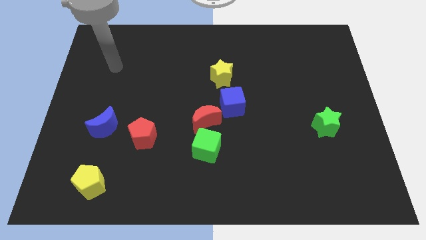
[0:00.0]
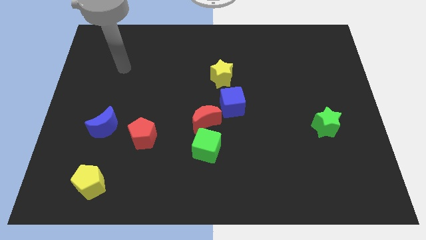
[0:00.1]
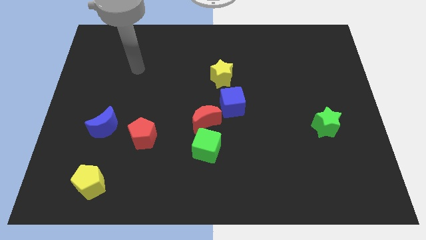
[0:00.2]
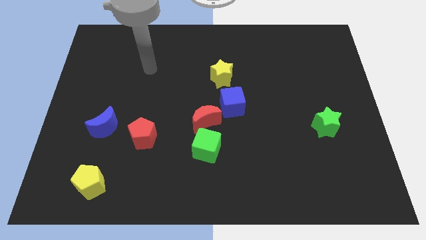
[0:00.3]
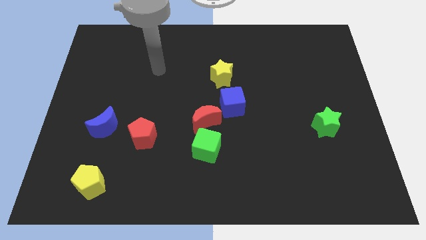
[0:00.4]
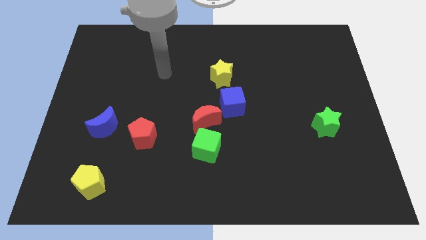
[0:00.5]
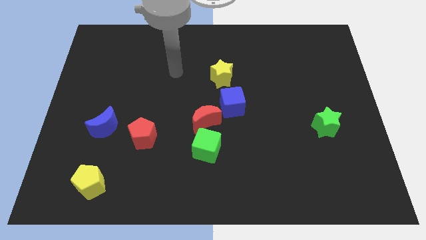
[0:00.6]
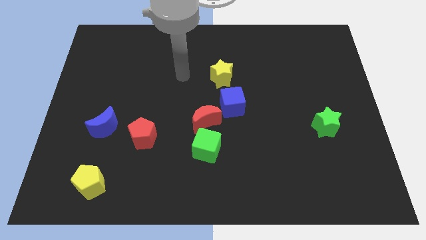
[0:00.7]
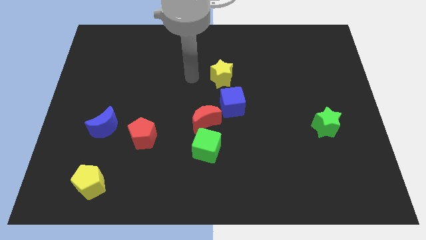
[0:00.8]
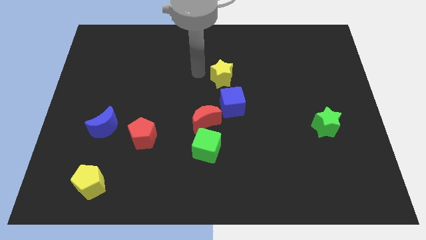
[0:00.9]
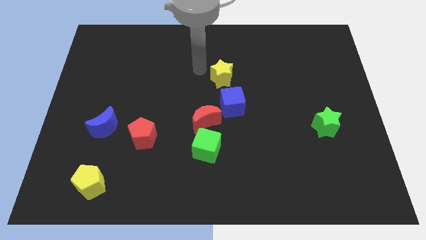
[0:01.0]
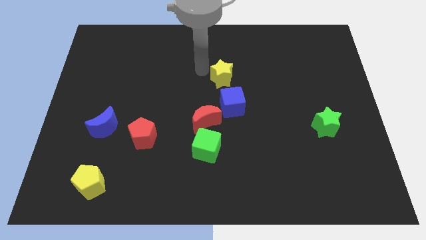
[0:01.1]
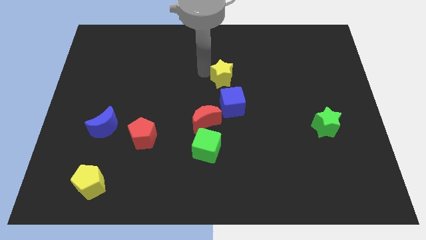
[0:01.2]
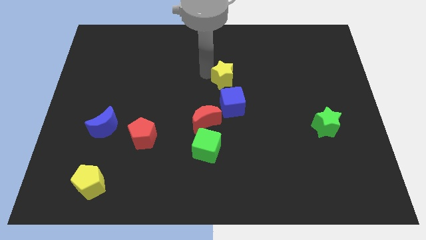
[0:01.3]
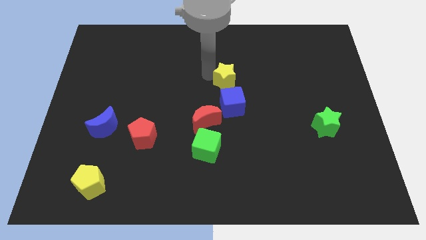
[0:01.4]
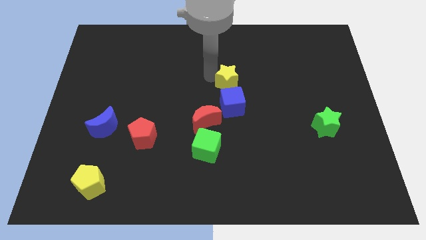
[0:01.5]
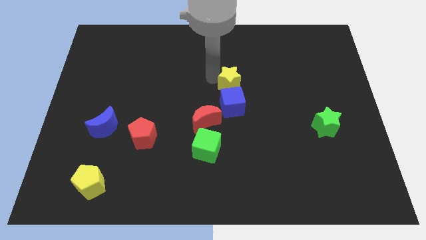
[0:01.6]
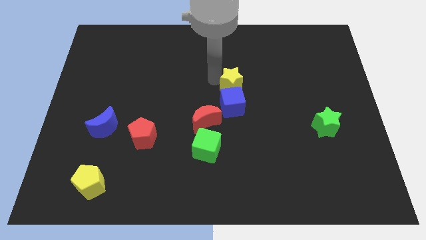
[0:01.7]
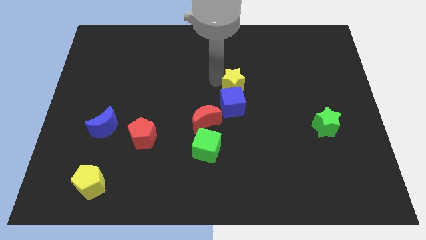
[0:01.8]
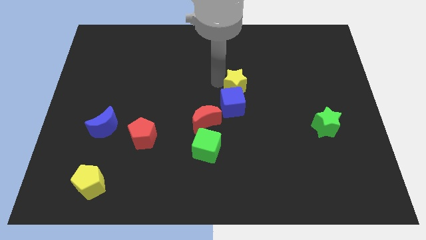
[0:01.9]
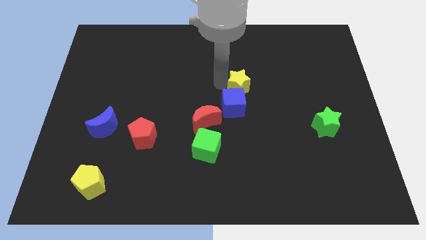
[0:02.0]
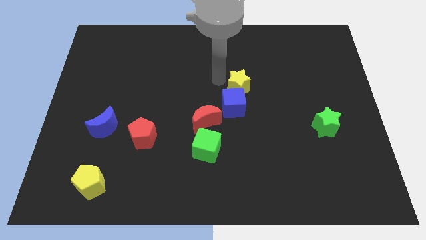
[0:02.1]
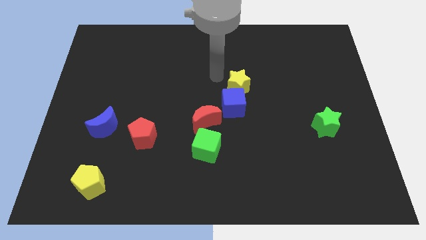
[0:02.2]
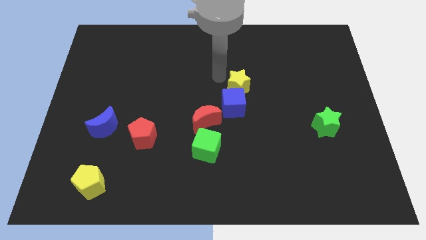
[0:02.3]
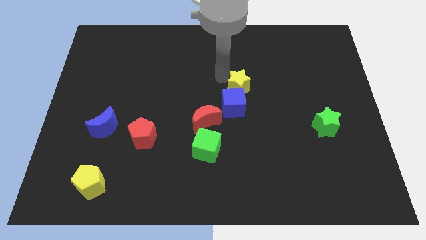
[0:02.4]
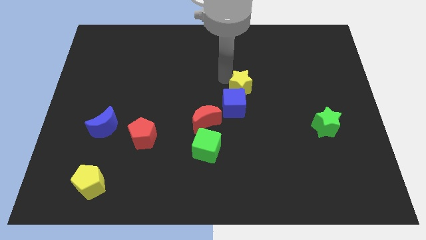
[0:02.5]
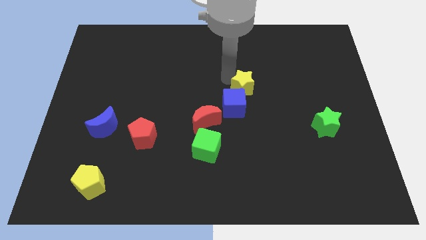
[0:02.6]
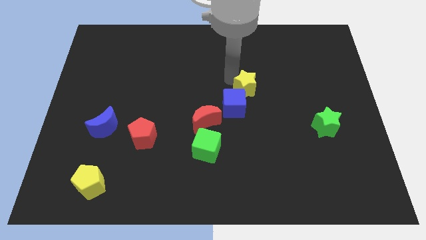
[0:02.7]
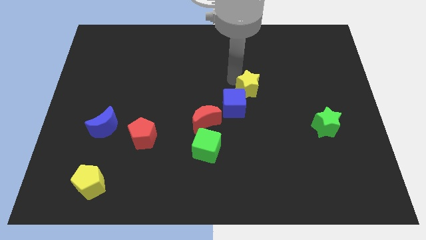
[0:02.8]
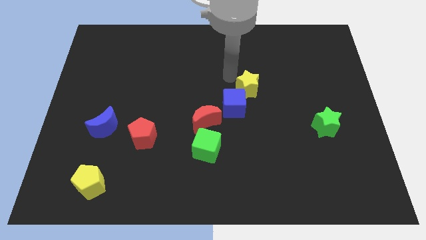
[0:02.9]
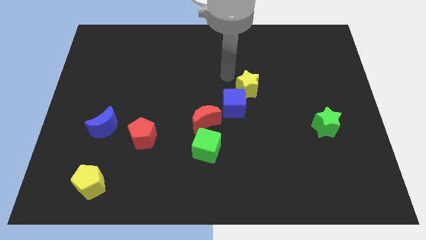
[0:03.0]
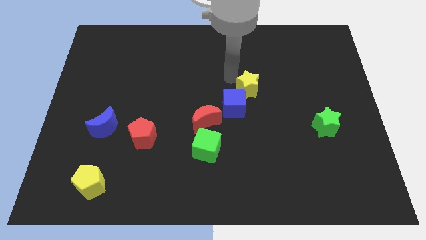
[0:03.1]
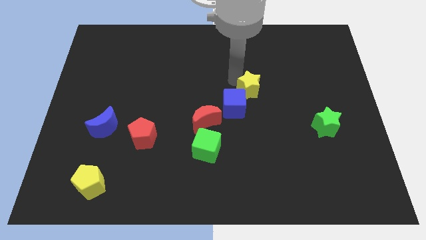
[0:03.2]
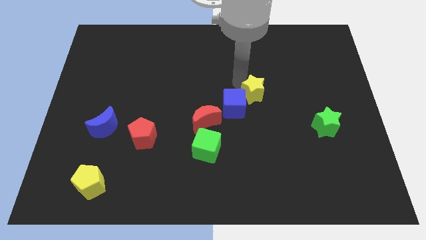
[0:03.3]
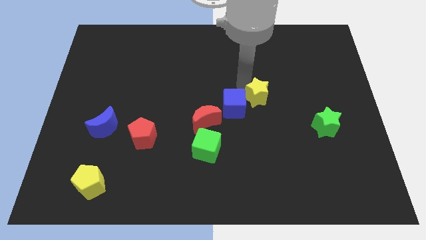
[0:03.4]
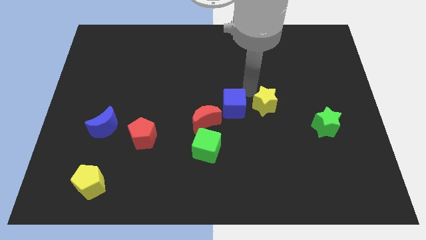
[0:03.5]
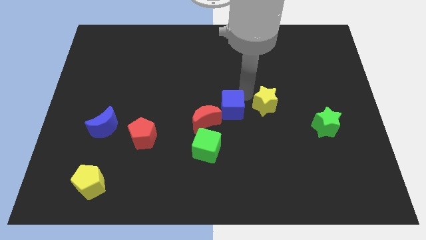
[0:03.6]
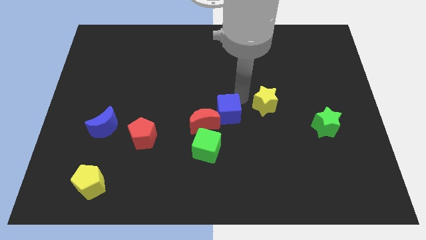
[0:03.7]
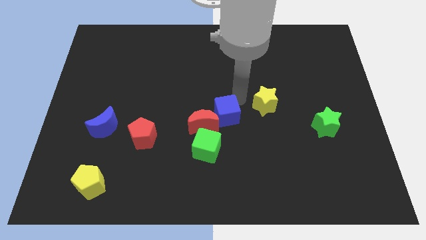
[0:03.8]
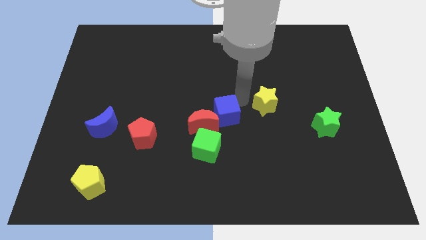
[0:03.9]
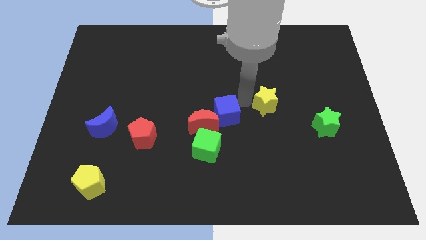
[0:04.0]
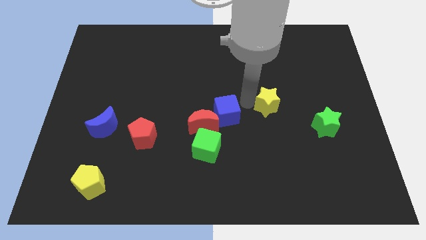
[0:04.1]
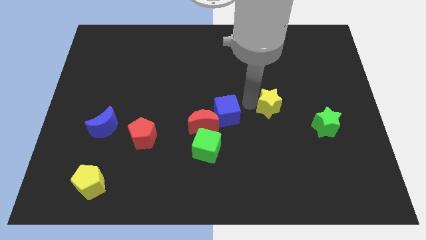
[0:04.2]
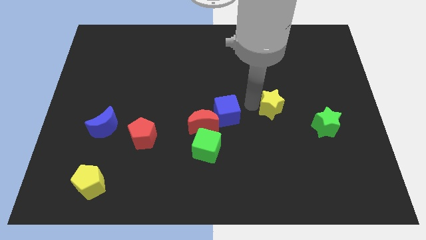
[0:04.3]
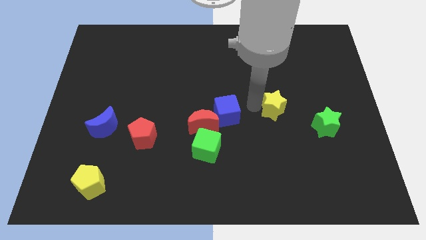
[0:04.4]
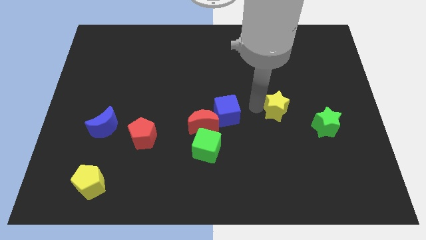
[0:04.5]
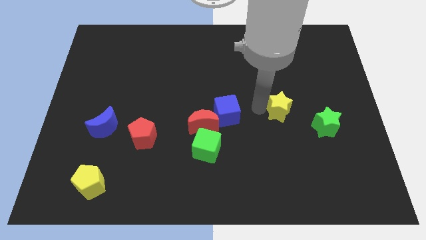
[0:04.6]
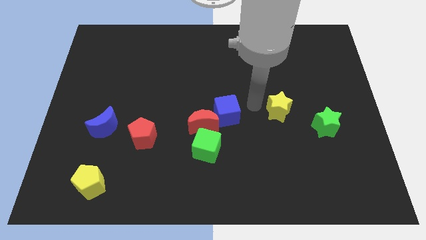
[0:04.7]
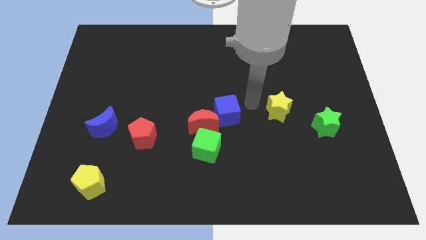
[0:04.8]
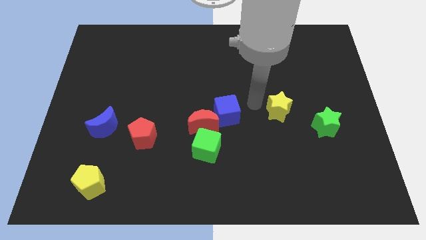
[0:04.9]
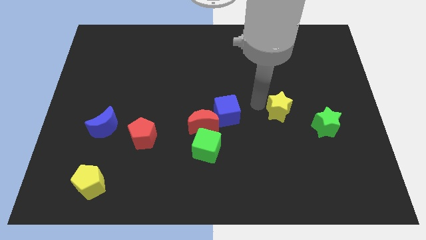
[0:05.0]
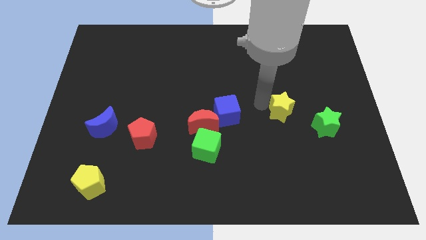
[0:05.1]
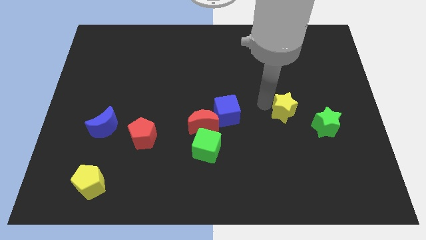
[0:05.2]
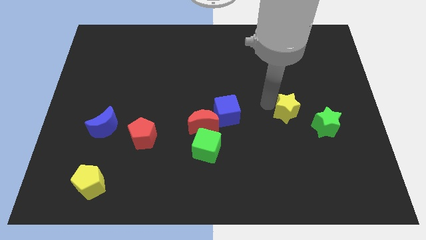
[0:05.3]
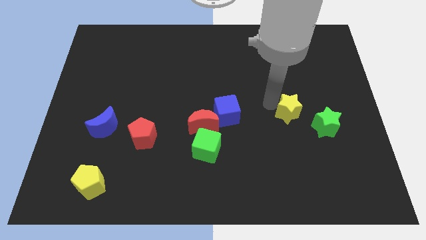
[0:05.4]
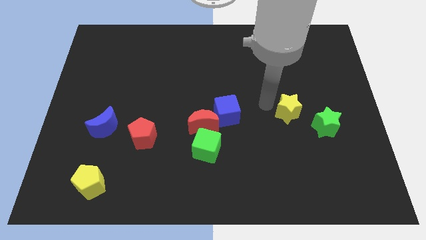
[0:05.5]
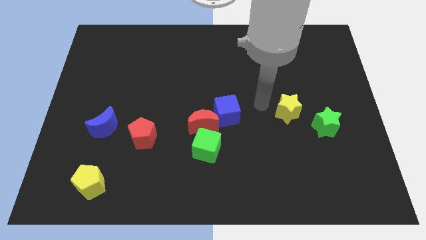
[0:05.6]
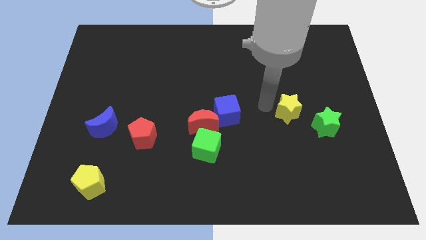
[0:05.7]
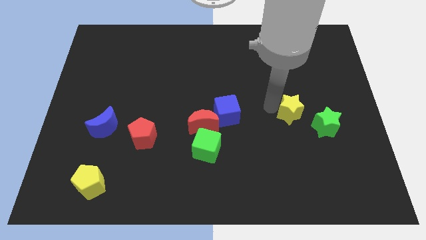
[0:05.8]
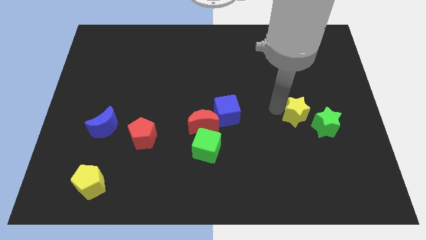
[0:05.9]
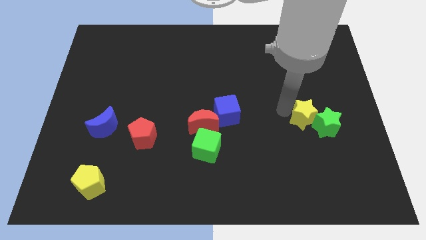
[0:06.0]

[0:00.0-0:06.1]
push the yellow star towards the green star

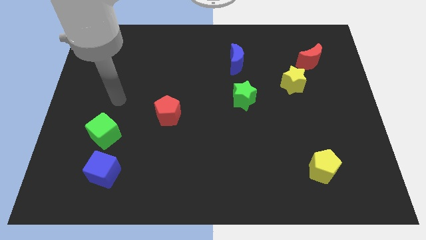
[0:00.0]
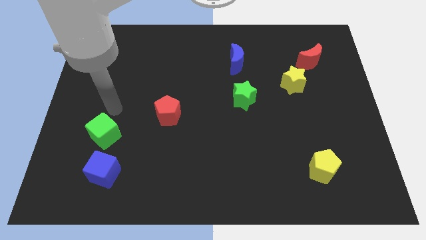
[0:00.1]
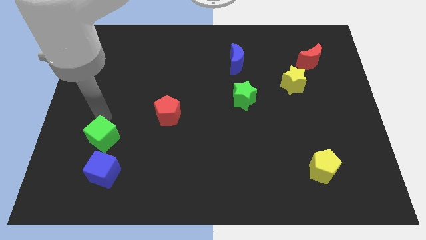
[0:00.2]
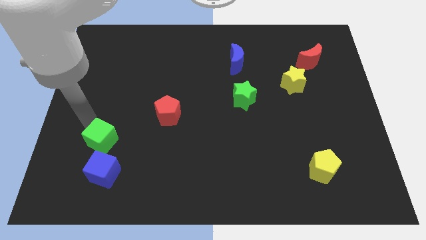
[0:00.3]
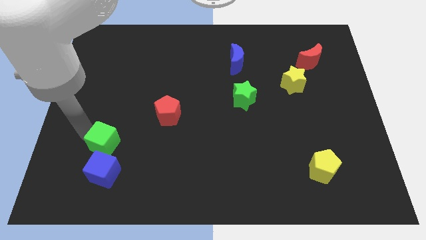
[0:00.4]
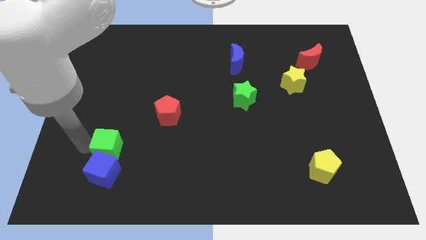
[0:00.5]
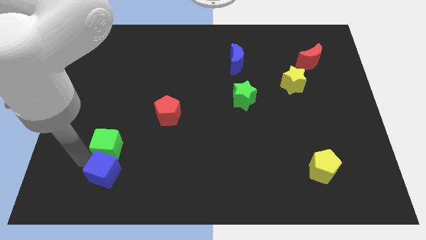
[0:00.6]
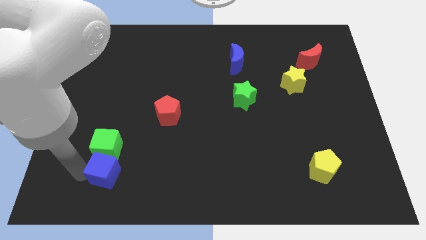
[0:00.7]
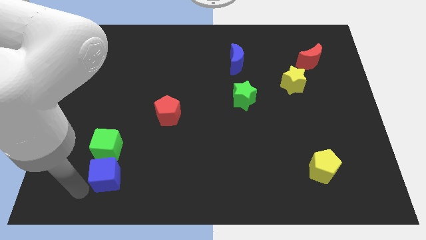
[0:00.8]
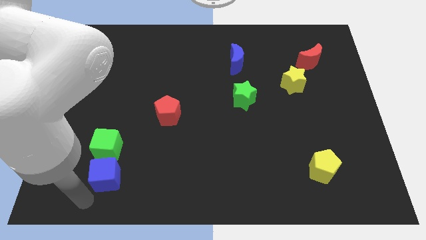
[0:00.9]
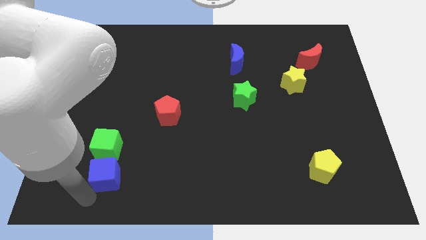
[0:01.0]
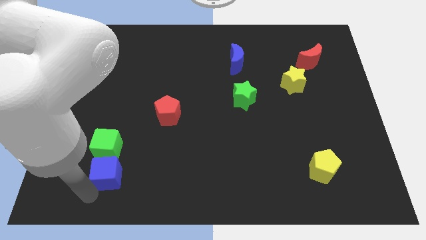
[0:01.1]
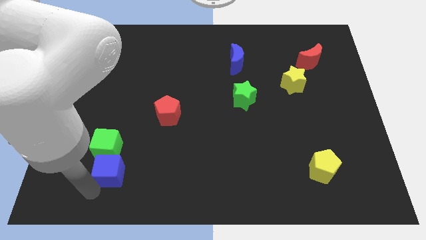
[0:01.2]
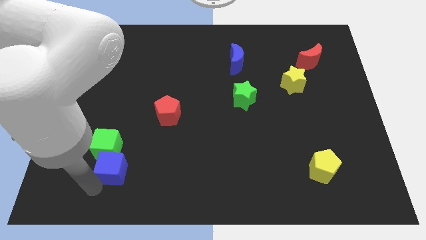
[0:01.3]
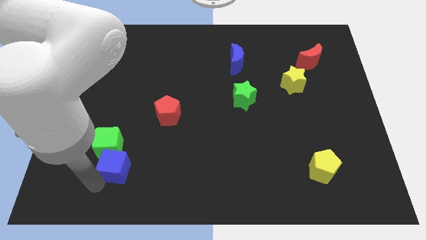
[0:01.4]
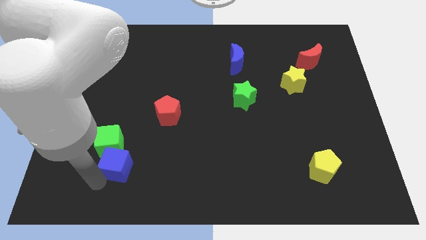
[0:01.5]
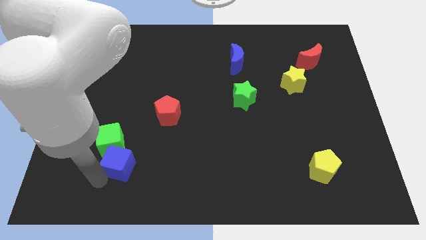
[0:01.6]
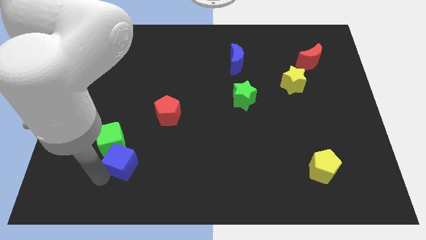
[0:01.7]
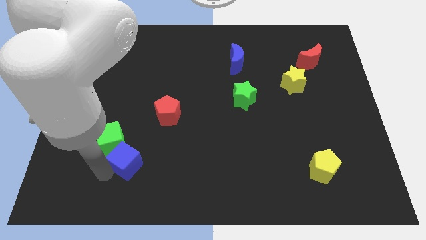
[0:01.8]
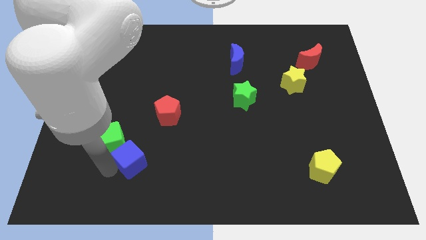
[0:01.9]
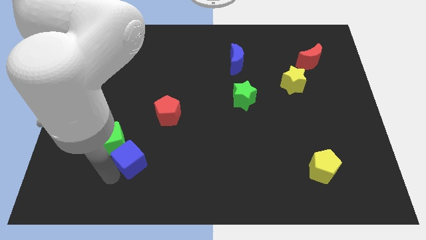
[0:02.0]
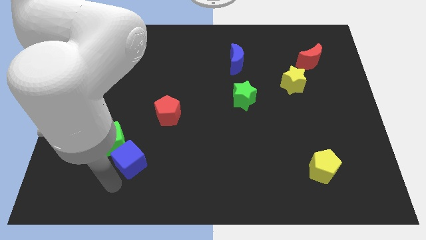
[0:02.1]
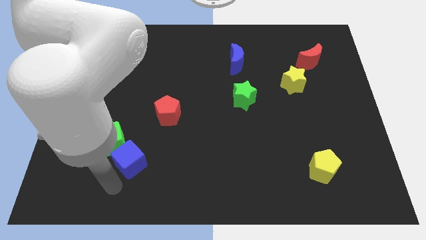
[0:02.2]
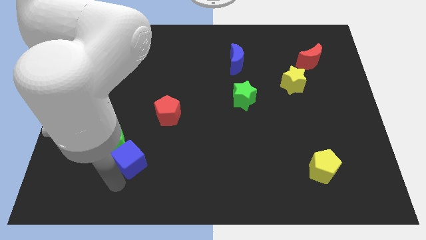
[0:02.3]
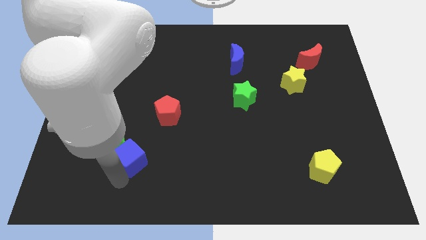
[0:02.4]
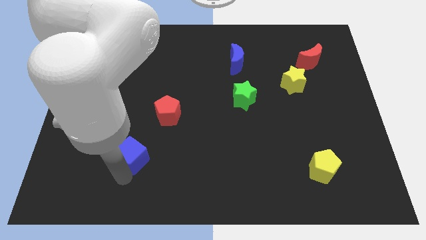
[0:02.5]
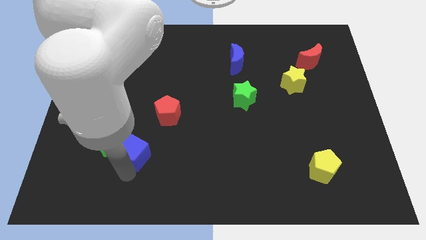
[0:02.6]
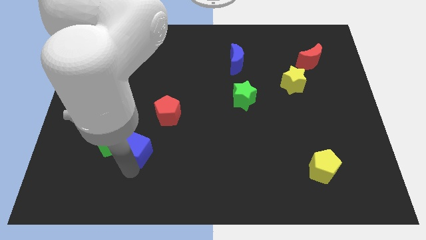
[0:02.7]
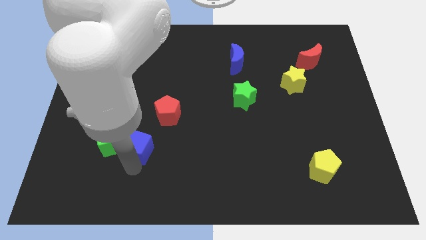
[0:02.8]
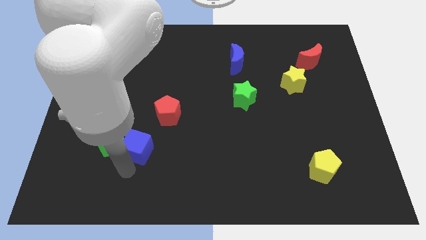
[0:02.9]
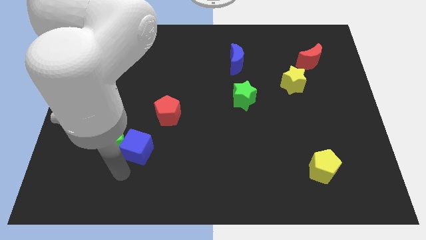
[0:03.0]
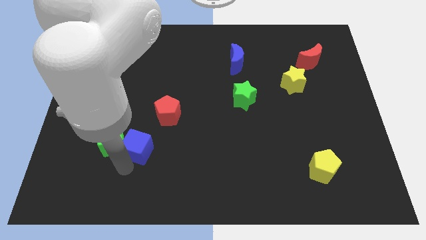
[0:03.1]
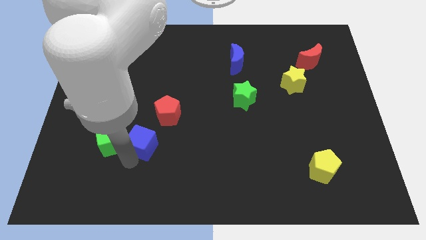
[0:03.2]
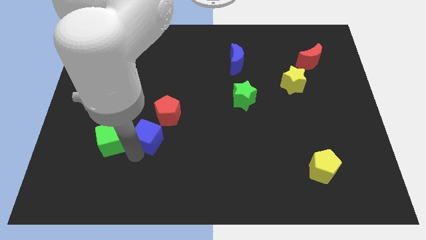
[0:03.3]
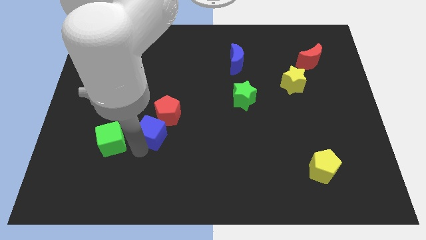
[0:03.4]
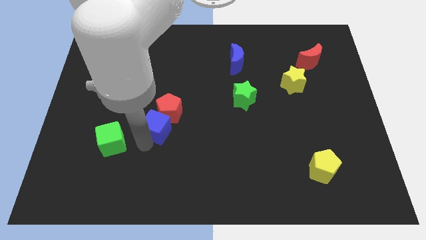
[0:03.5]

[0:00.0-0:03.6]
slide the blue cube next to the red pentagon
